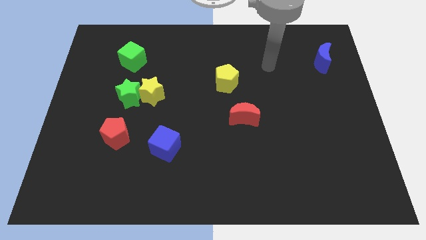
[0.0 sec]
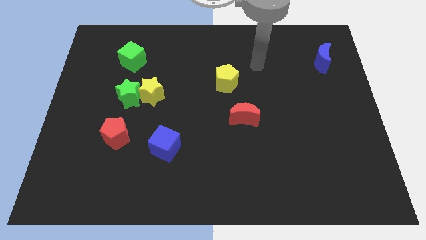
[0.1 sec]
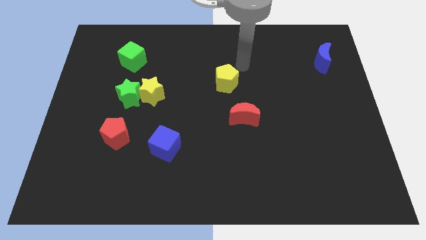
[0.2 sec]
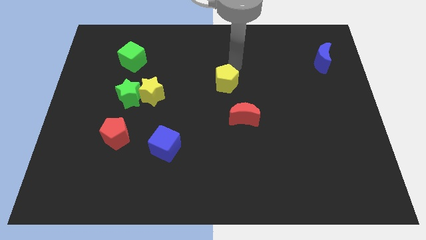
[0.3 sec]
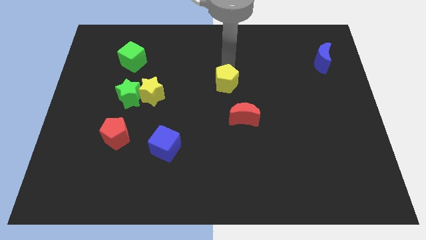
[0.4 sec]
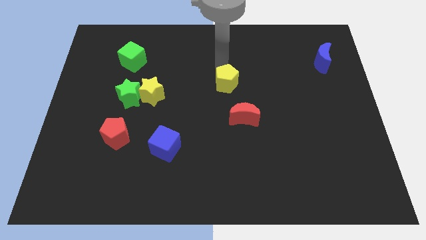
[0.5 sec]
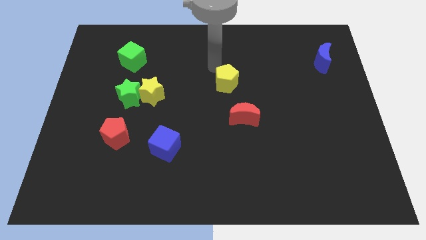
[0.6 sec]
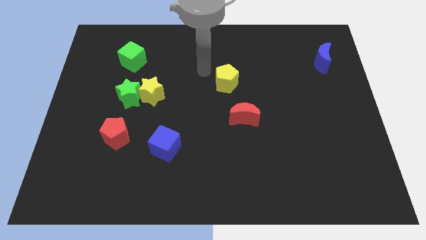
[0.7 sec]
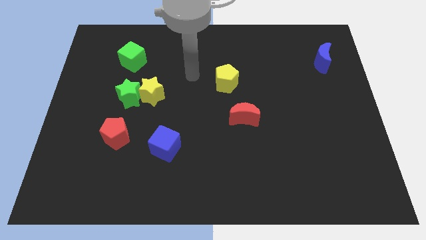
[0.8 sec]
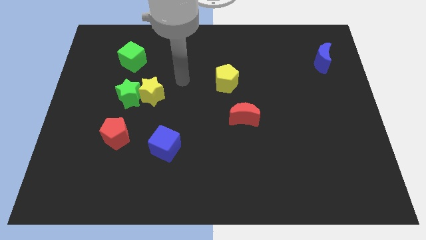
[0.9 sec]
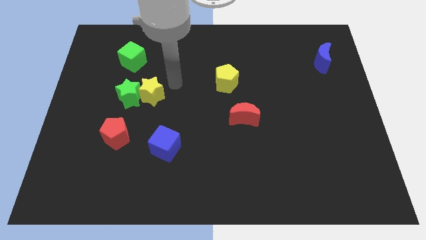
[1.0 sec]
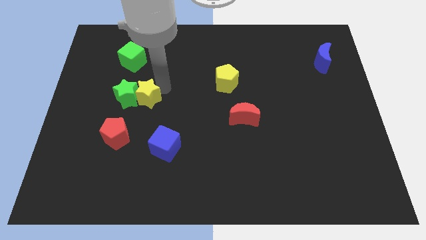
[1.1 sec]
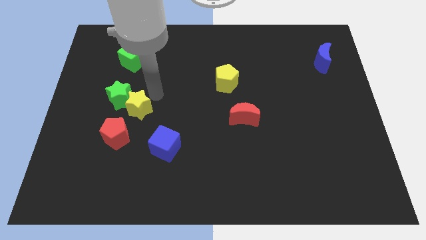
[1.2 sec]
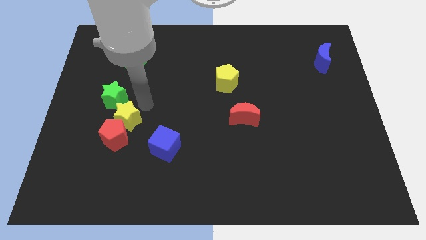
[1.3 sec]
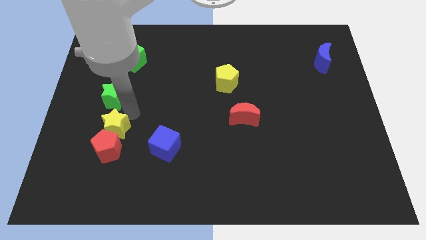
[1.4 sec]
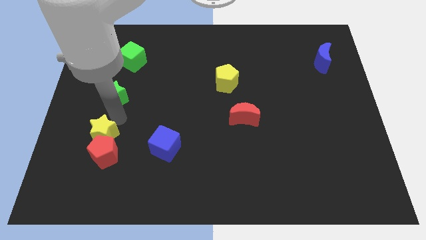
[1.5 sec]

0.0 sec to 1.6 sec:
move the green star away from the yellow star

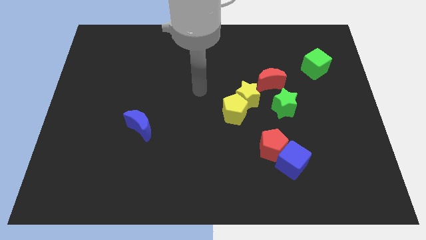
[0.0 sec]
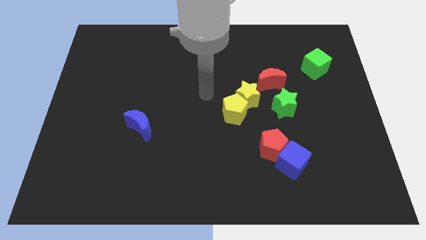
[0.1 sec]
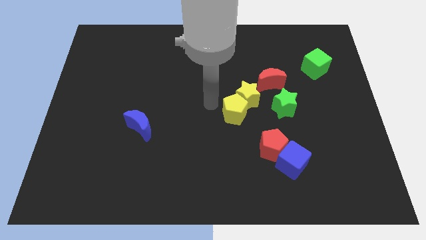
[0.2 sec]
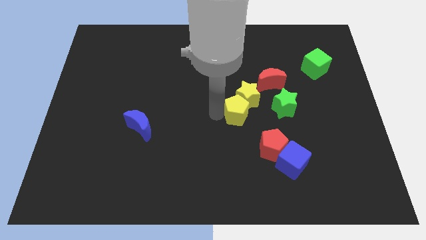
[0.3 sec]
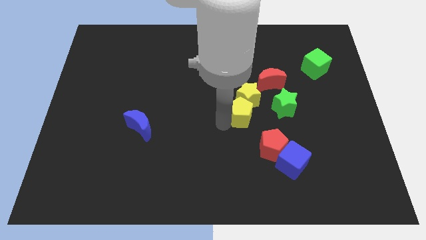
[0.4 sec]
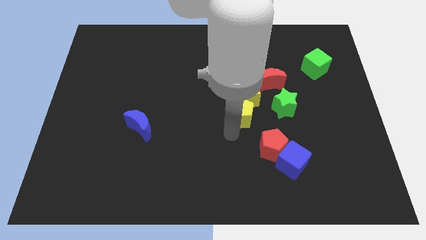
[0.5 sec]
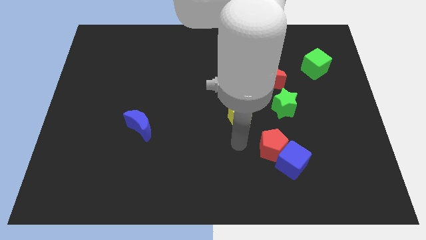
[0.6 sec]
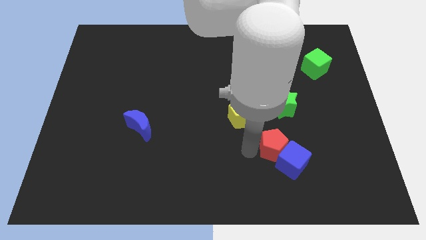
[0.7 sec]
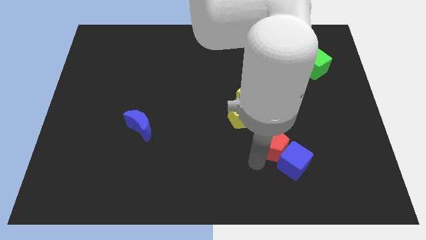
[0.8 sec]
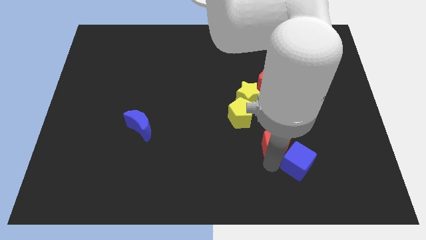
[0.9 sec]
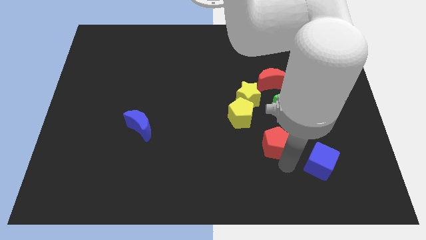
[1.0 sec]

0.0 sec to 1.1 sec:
move the red pentagon away from the blue cube

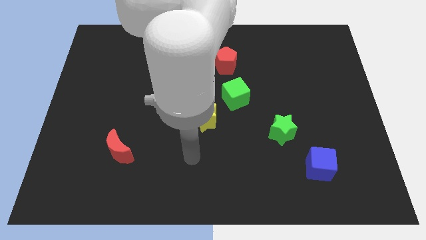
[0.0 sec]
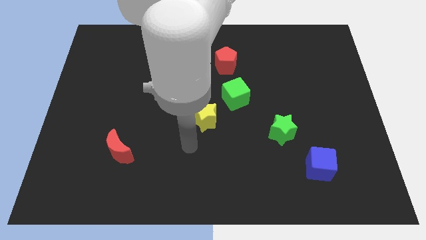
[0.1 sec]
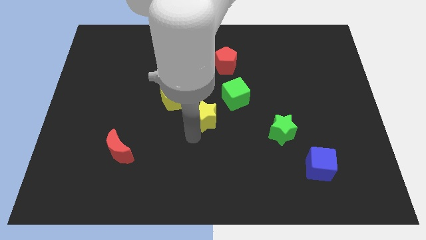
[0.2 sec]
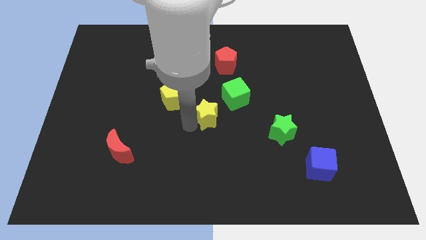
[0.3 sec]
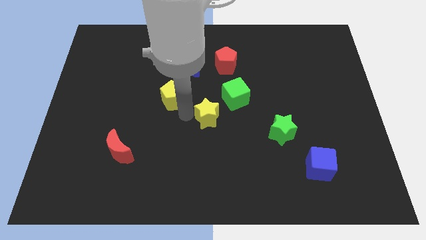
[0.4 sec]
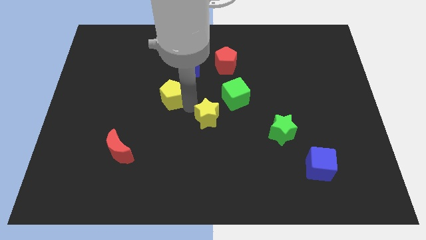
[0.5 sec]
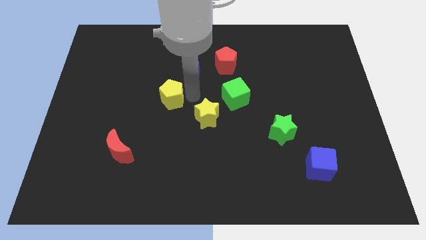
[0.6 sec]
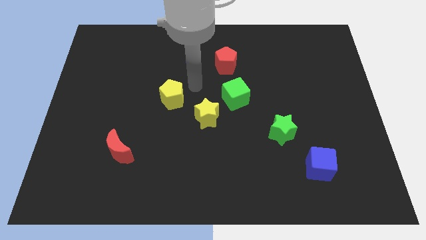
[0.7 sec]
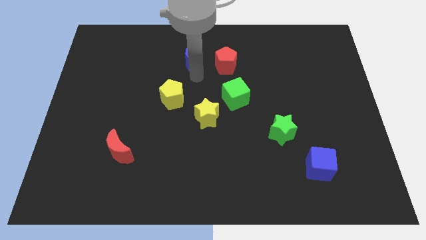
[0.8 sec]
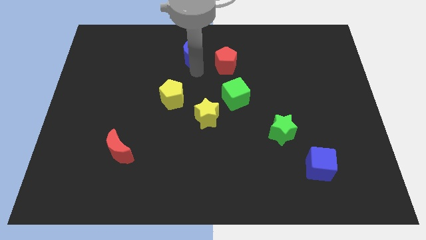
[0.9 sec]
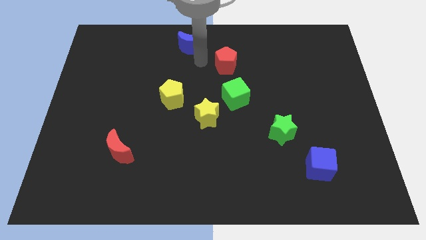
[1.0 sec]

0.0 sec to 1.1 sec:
move the red pentagon away from the blue moon

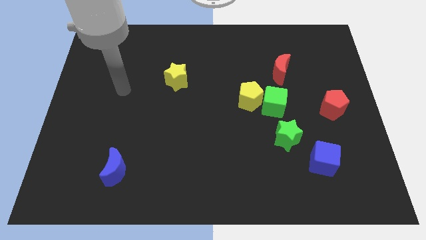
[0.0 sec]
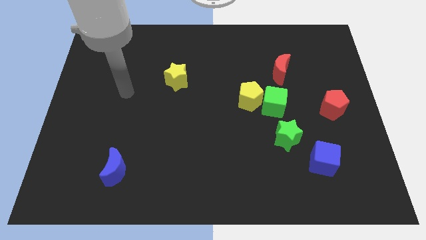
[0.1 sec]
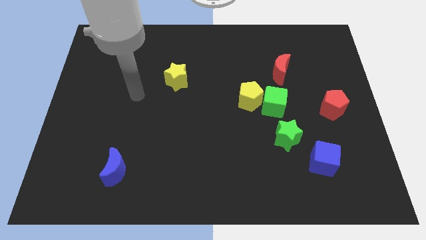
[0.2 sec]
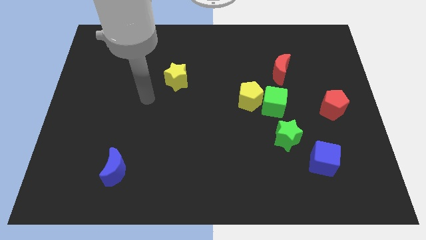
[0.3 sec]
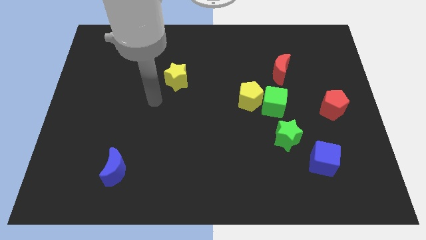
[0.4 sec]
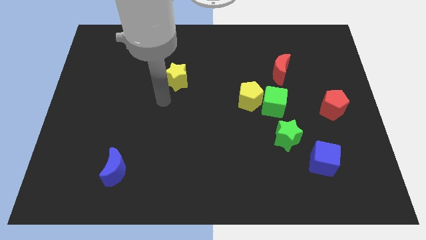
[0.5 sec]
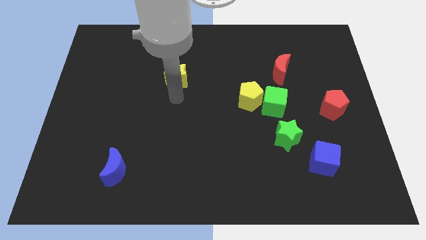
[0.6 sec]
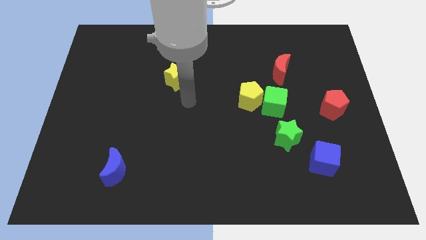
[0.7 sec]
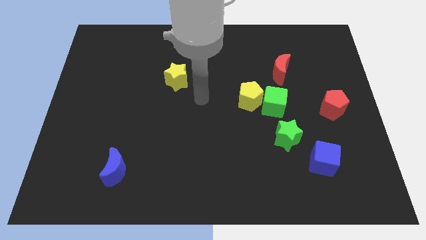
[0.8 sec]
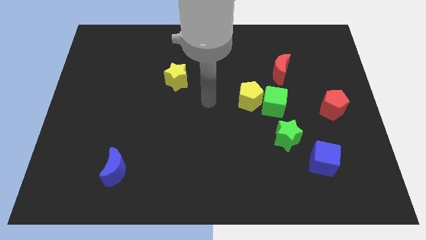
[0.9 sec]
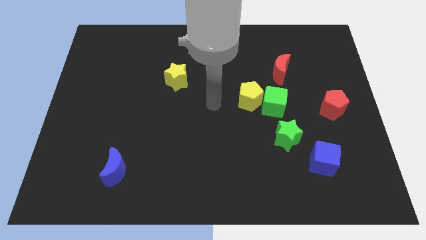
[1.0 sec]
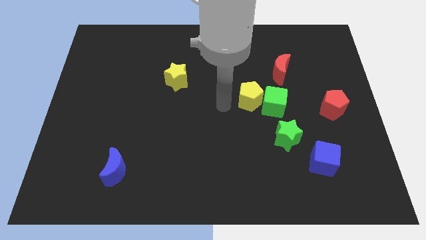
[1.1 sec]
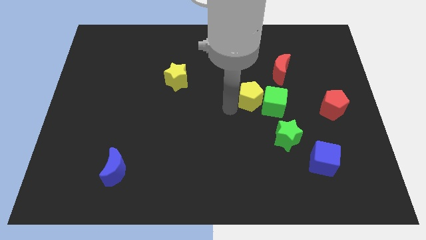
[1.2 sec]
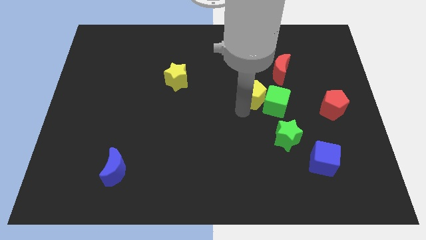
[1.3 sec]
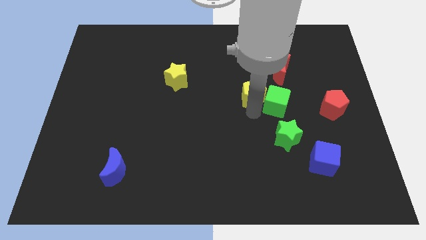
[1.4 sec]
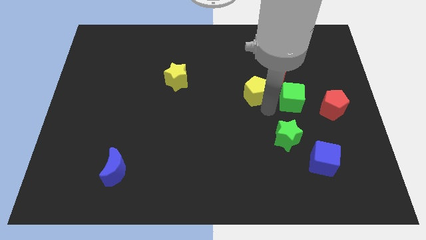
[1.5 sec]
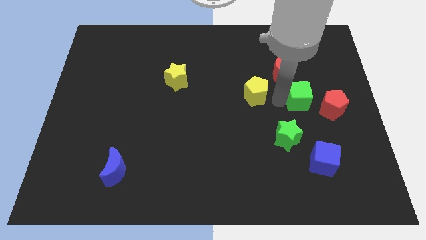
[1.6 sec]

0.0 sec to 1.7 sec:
move the yellow pentagon away from the green cube

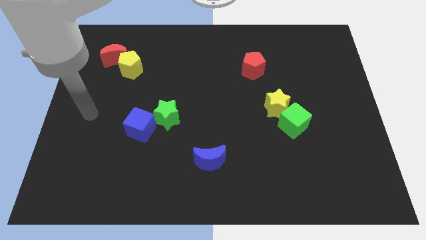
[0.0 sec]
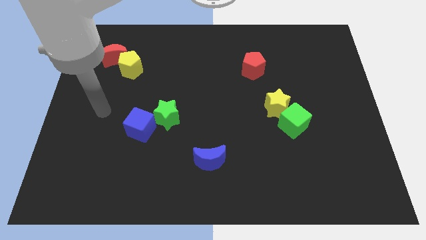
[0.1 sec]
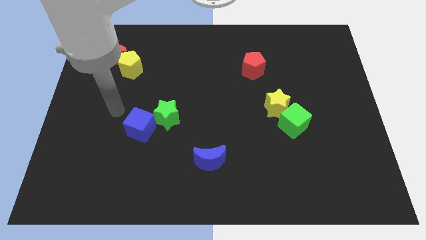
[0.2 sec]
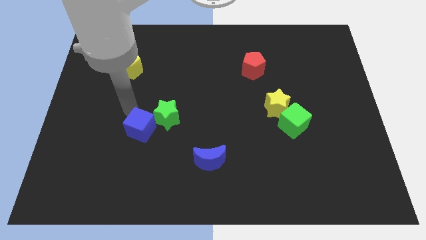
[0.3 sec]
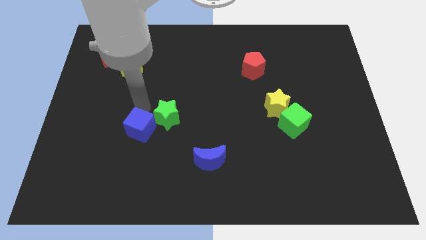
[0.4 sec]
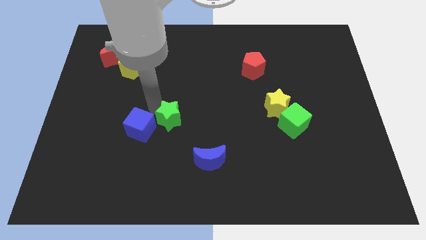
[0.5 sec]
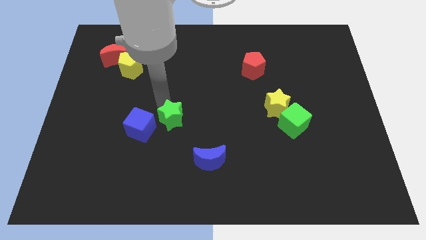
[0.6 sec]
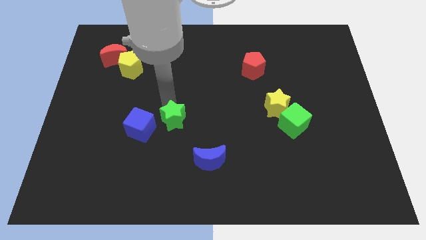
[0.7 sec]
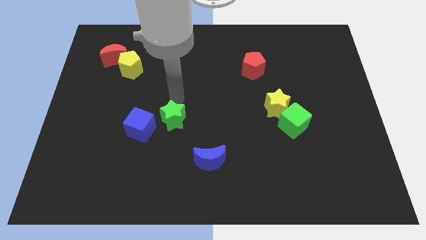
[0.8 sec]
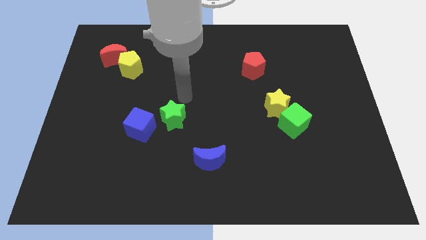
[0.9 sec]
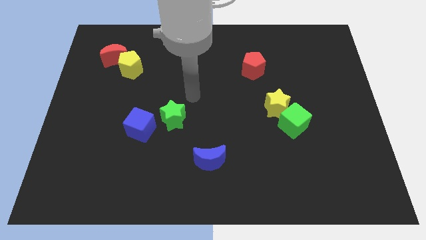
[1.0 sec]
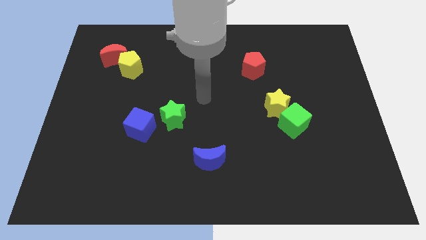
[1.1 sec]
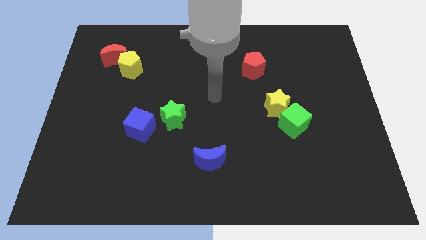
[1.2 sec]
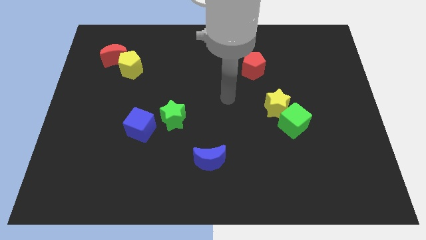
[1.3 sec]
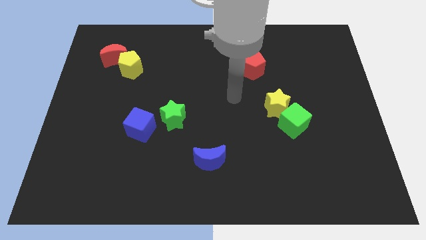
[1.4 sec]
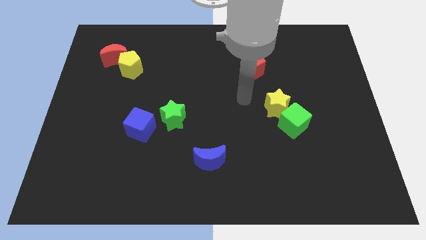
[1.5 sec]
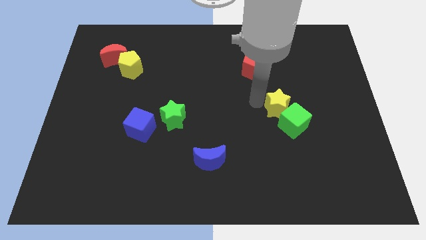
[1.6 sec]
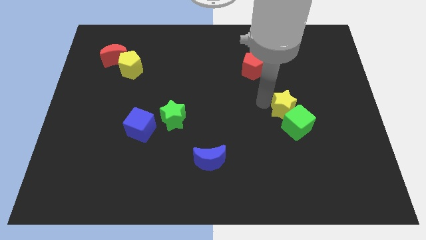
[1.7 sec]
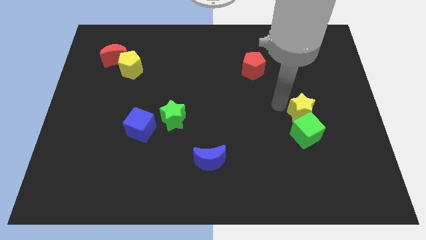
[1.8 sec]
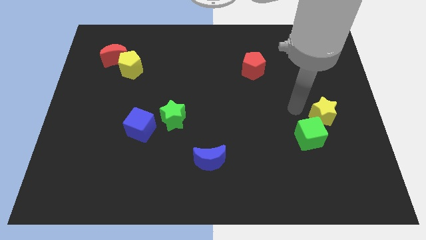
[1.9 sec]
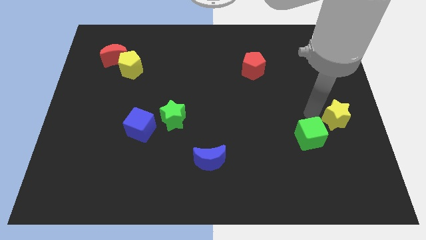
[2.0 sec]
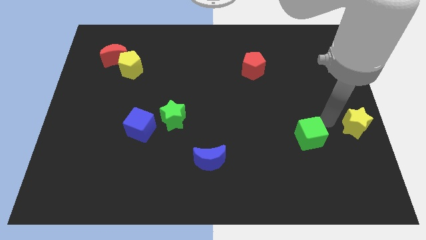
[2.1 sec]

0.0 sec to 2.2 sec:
pull the green cube apart from the yellow star

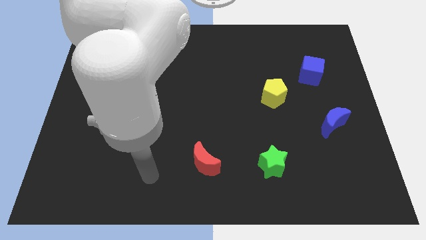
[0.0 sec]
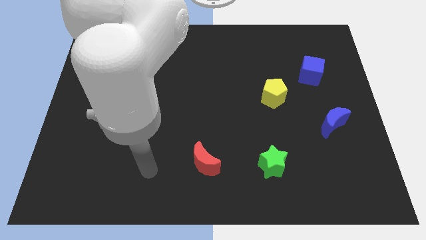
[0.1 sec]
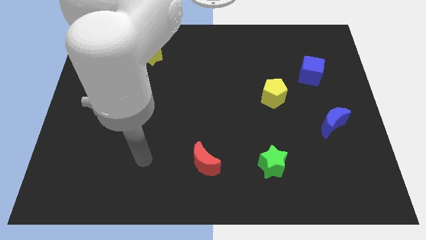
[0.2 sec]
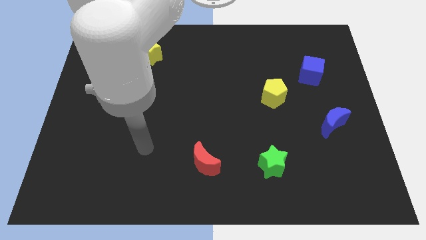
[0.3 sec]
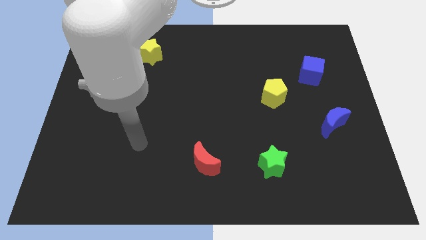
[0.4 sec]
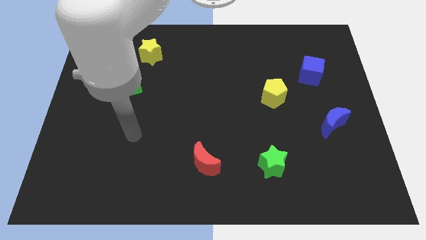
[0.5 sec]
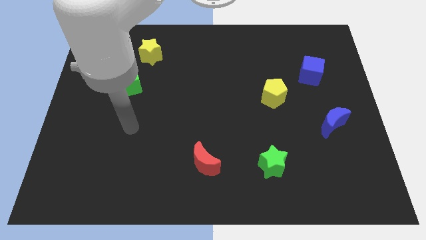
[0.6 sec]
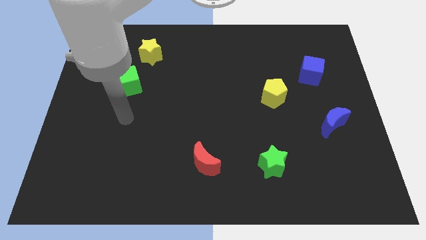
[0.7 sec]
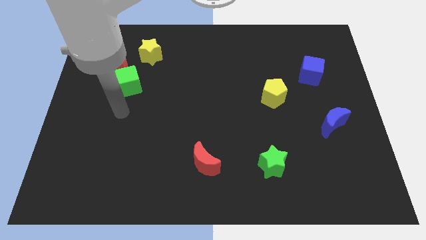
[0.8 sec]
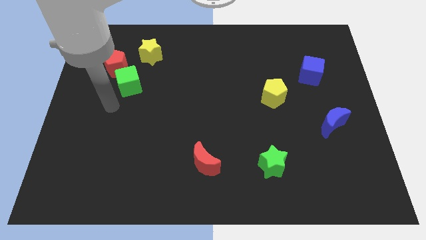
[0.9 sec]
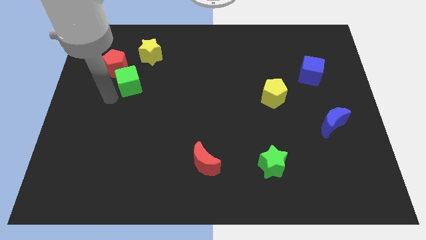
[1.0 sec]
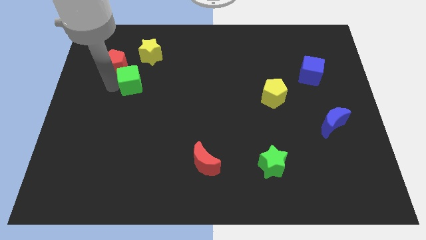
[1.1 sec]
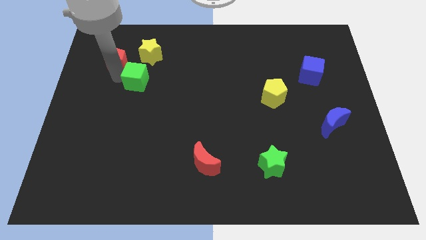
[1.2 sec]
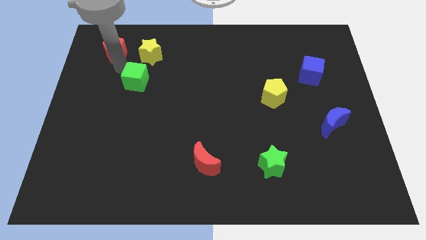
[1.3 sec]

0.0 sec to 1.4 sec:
pull the green cube apart from the red pentagon

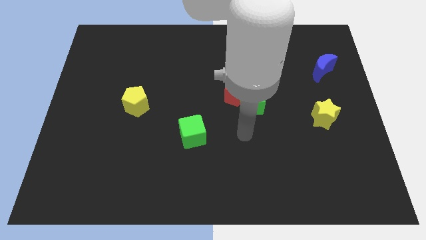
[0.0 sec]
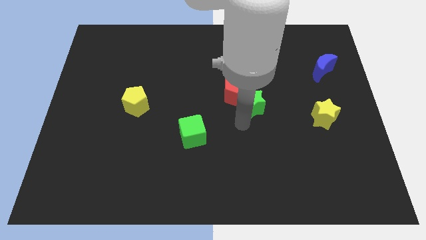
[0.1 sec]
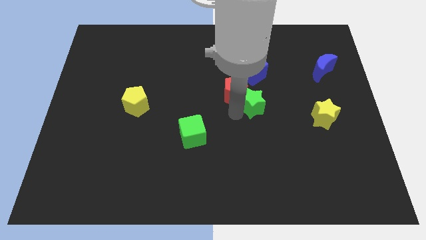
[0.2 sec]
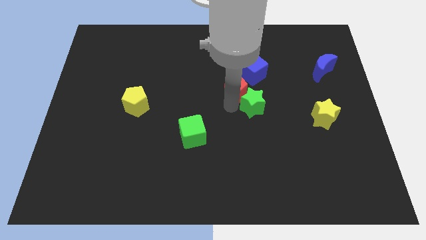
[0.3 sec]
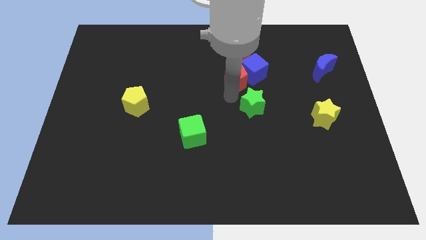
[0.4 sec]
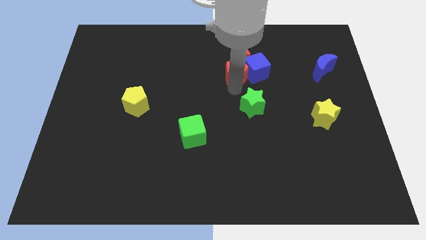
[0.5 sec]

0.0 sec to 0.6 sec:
separate the green star from the red pentagon
